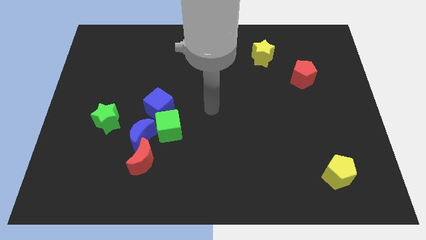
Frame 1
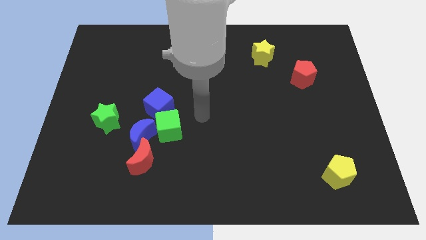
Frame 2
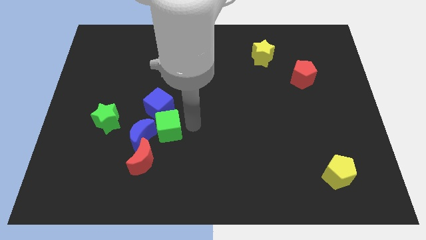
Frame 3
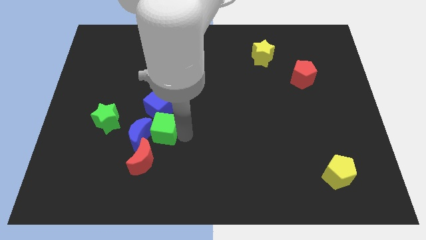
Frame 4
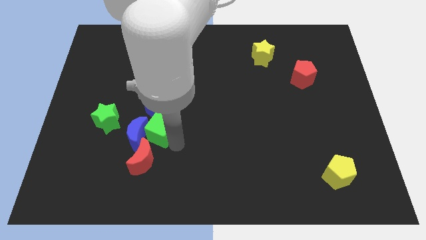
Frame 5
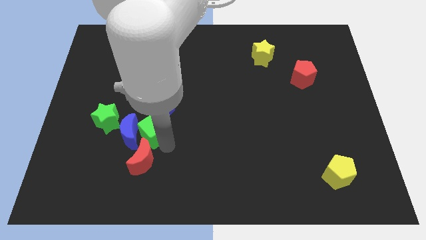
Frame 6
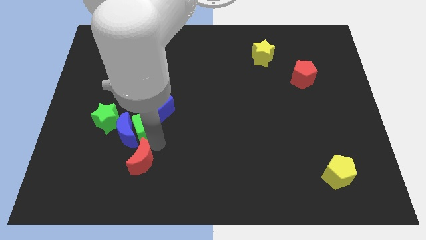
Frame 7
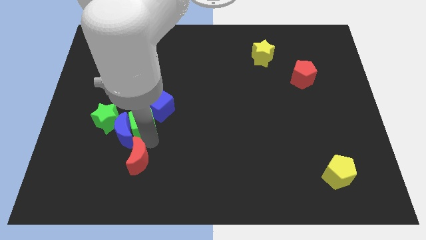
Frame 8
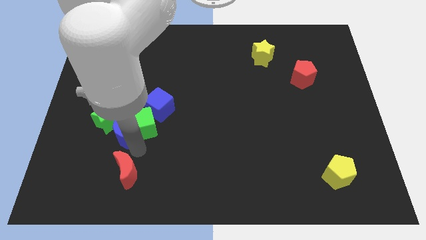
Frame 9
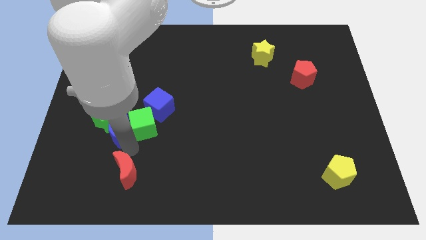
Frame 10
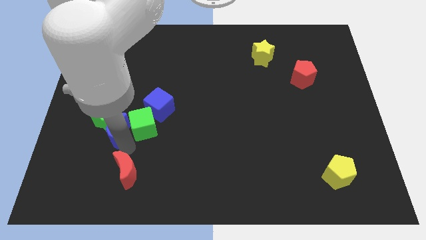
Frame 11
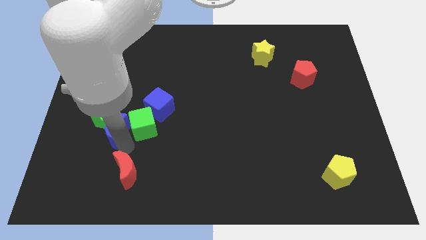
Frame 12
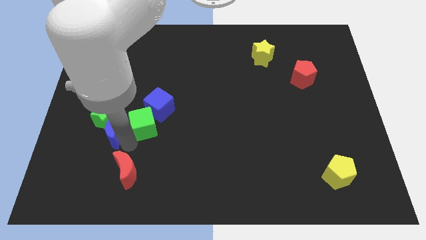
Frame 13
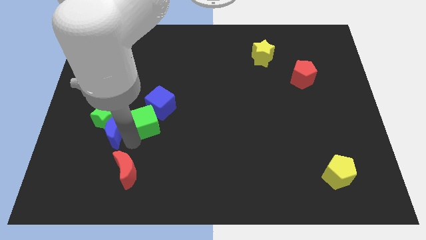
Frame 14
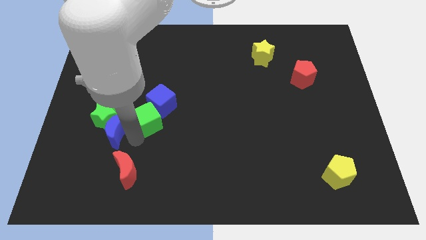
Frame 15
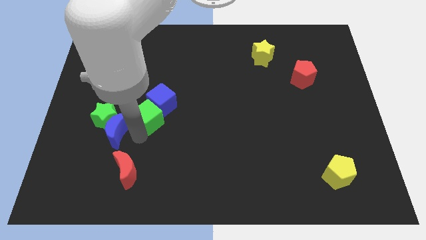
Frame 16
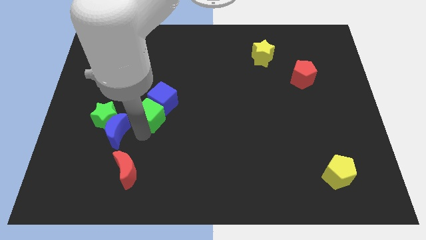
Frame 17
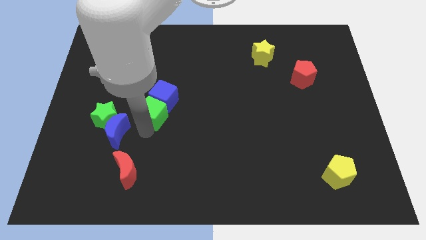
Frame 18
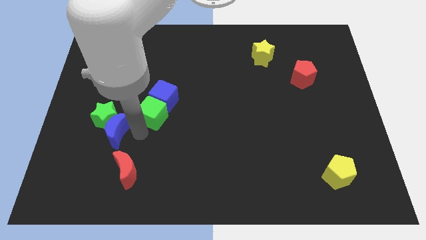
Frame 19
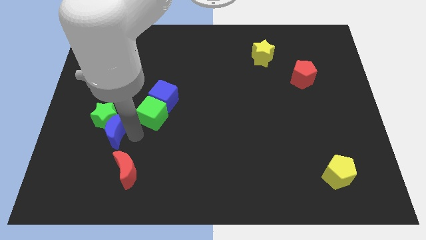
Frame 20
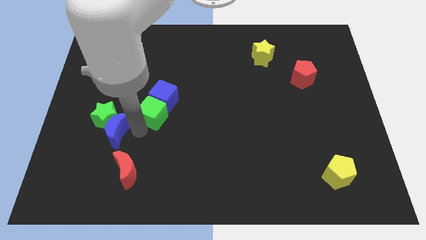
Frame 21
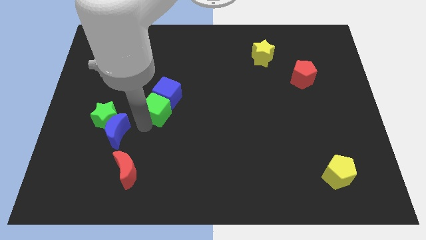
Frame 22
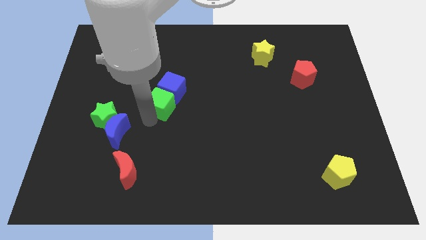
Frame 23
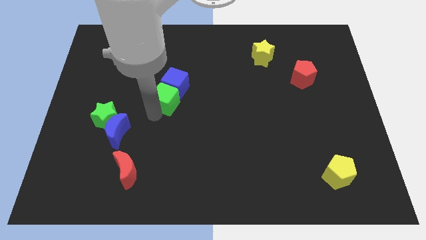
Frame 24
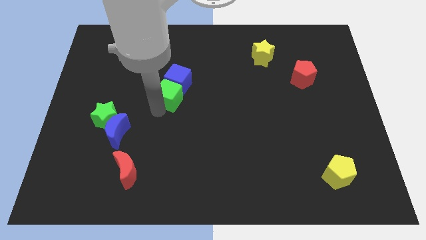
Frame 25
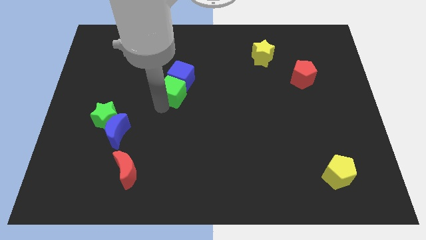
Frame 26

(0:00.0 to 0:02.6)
separate the green cube from the blue moon, blue cube, and red moon

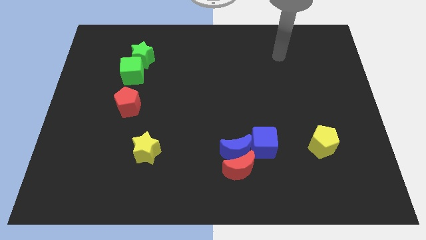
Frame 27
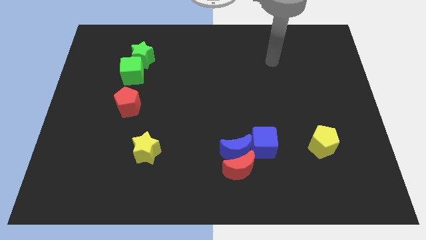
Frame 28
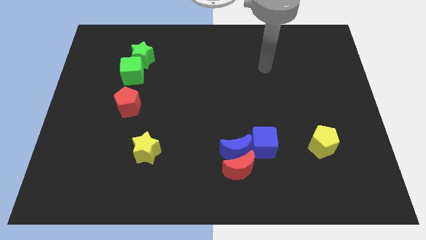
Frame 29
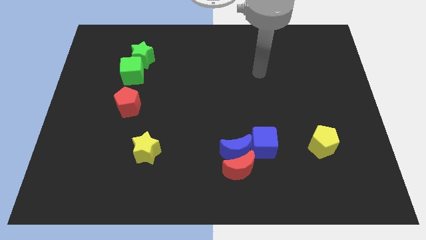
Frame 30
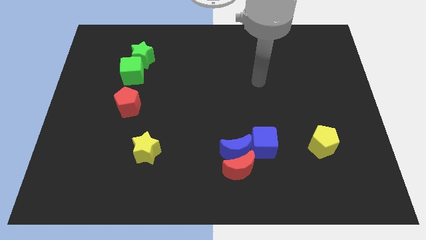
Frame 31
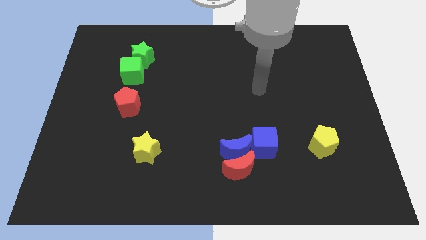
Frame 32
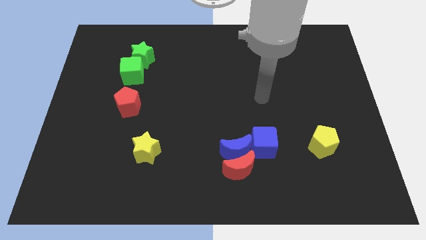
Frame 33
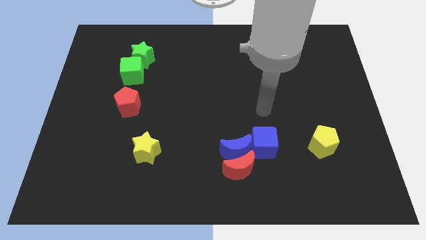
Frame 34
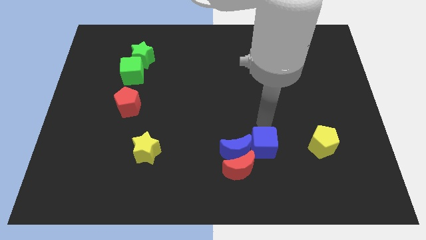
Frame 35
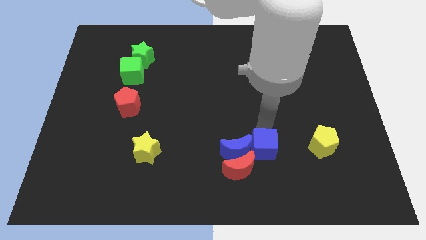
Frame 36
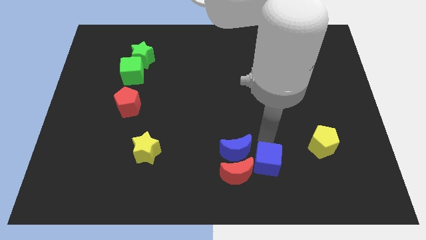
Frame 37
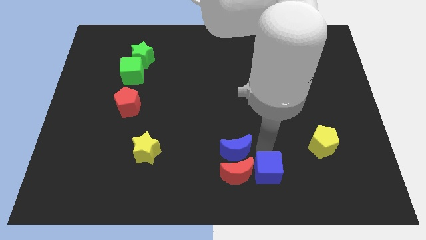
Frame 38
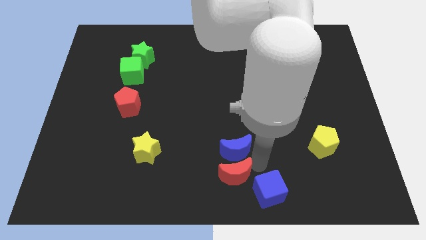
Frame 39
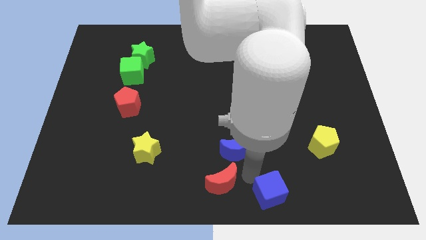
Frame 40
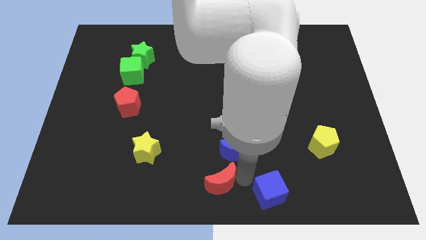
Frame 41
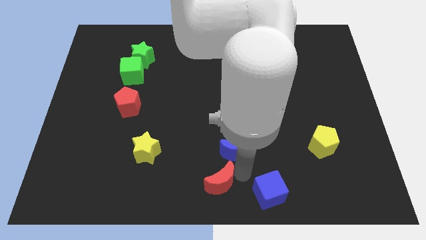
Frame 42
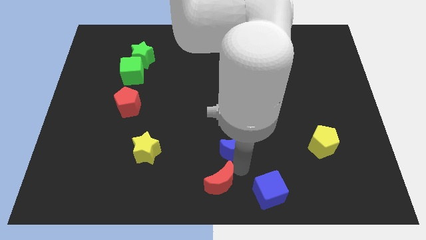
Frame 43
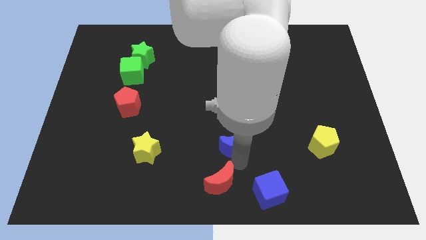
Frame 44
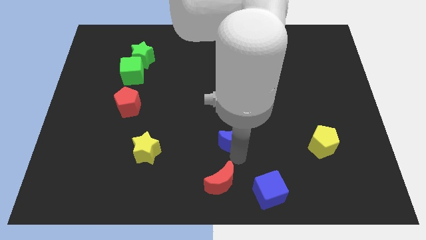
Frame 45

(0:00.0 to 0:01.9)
pull the blue moon apart from the red moon and blue cube

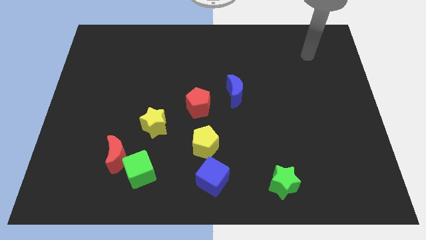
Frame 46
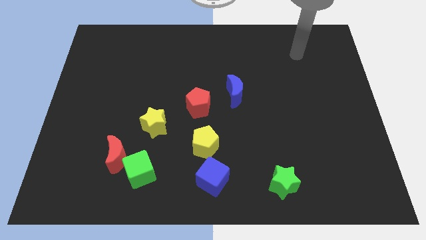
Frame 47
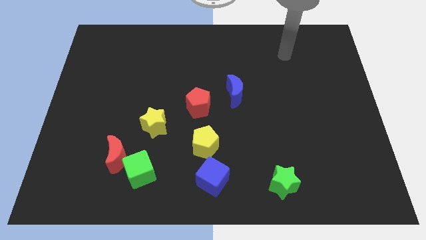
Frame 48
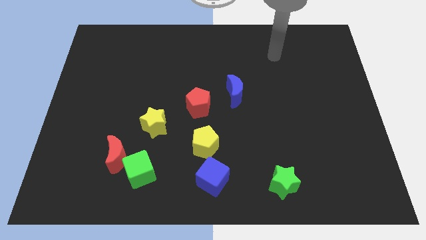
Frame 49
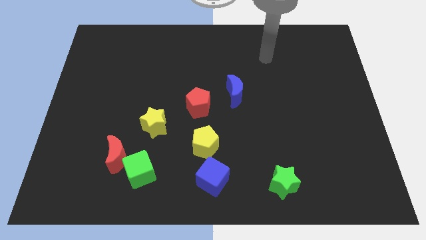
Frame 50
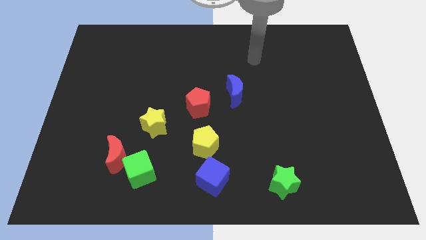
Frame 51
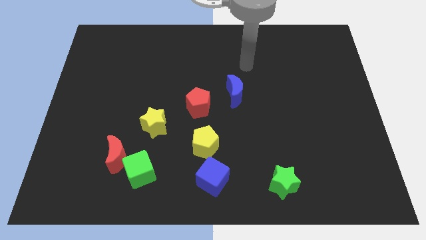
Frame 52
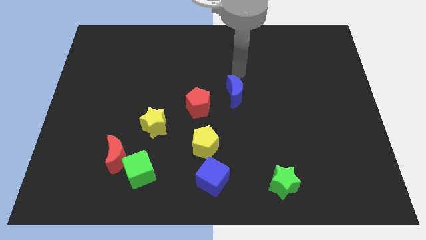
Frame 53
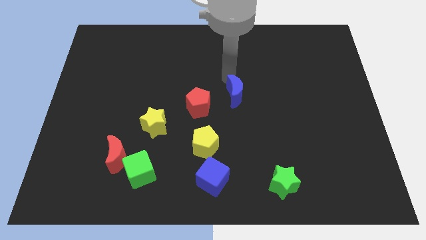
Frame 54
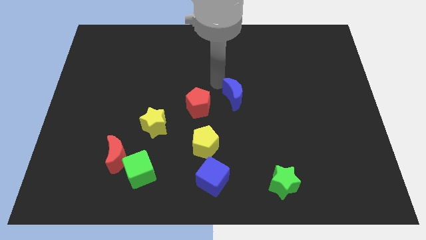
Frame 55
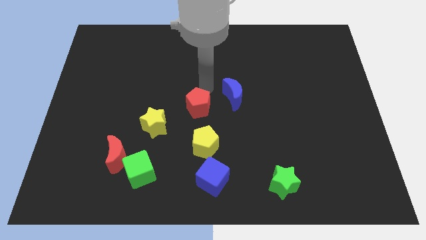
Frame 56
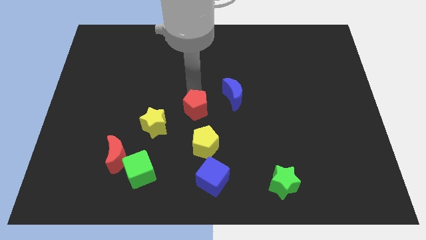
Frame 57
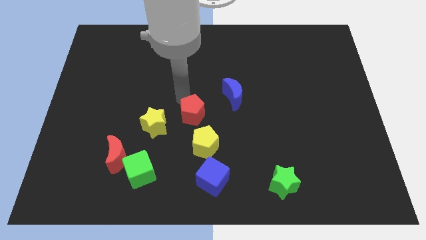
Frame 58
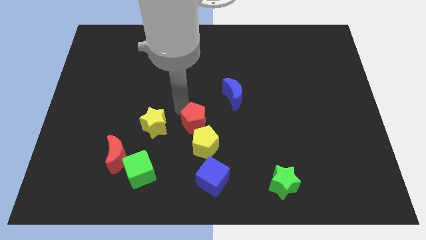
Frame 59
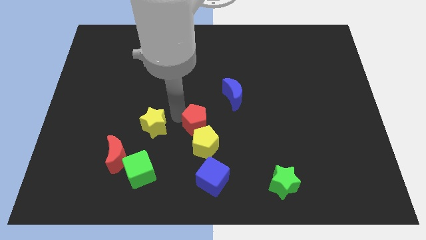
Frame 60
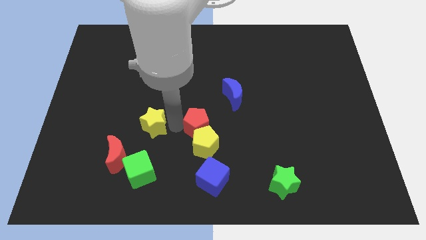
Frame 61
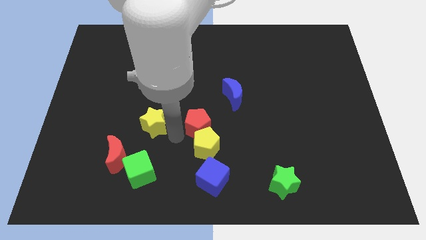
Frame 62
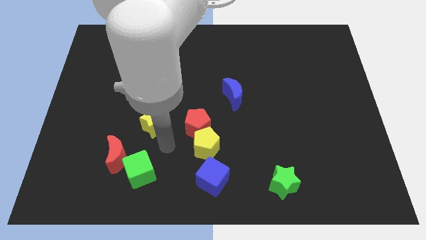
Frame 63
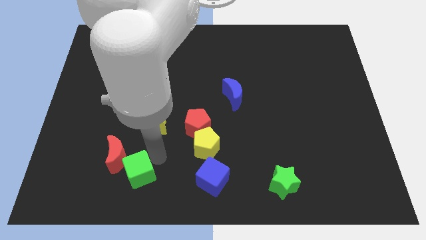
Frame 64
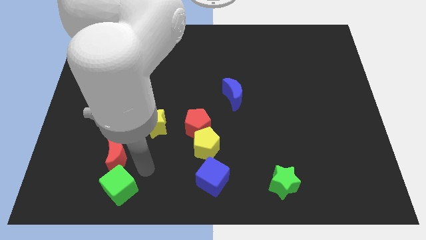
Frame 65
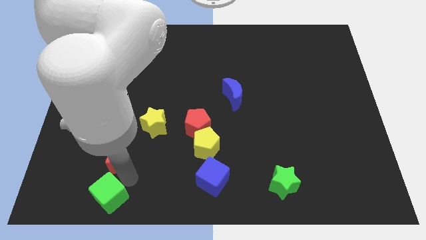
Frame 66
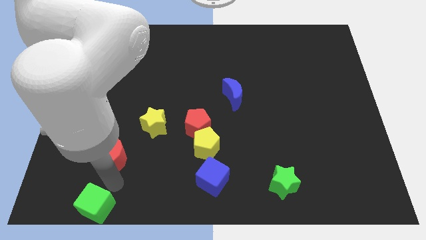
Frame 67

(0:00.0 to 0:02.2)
move the red moon away from the green cube

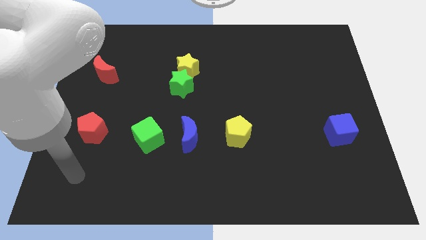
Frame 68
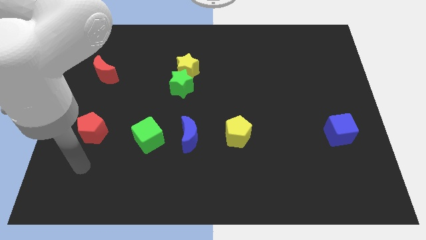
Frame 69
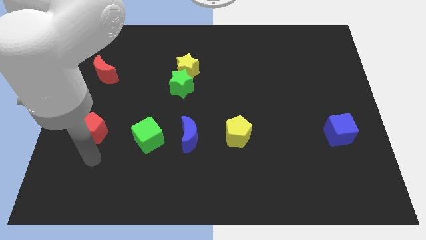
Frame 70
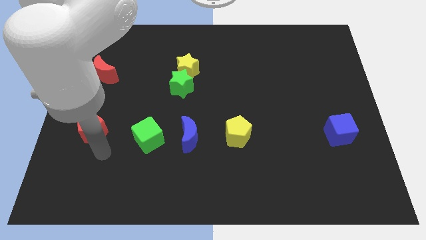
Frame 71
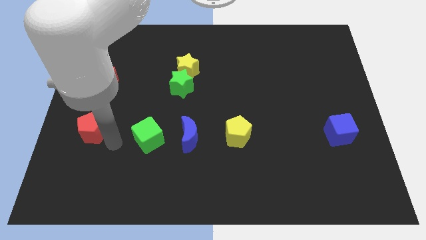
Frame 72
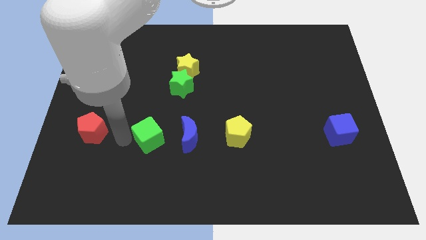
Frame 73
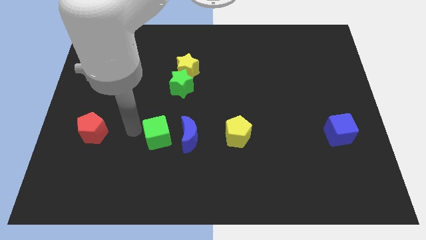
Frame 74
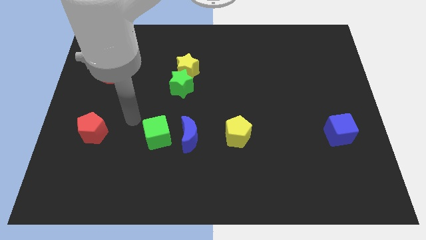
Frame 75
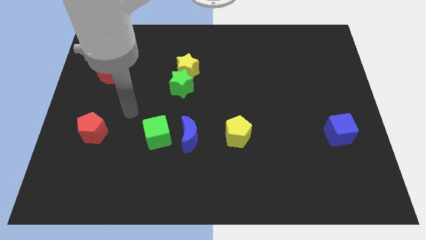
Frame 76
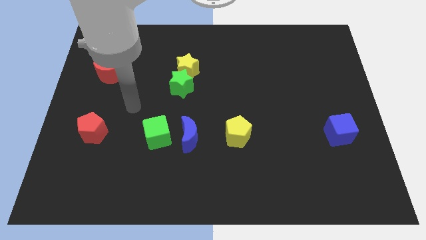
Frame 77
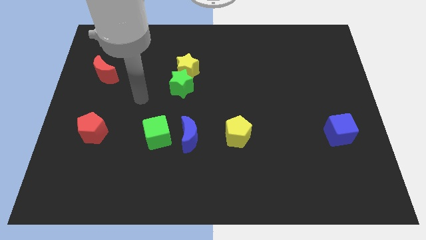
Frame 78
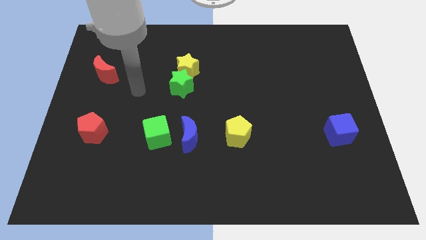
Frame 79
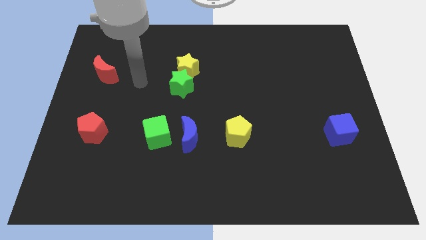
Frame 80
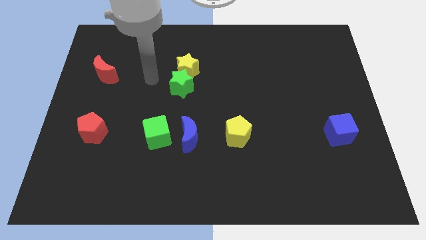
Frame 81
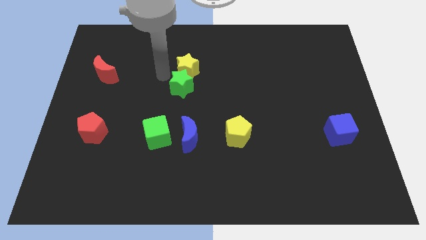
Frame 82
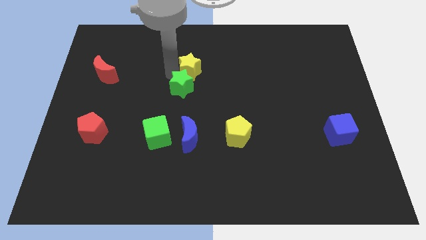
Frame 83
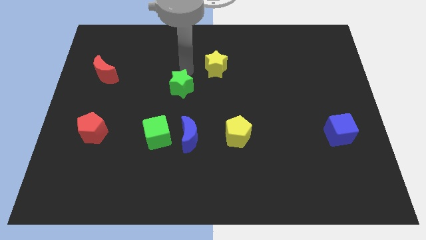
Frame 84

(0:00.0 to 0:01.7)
separate the green star from the yellow star

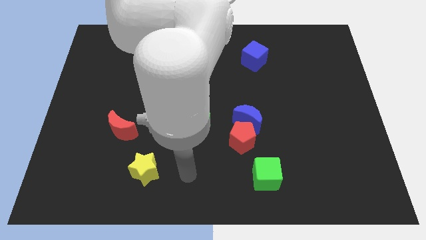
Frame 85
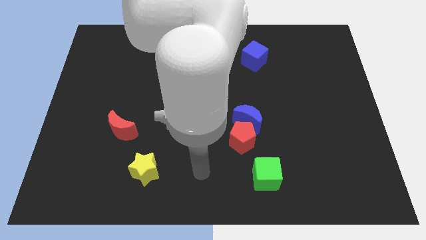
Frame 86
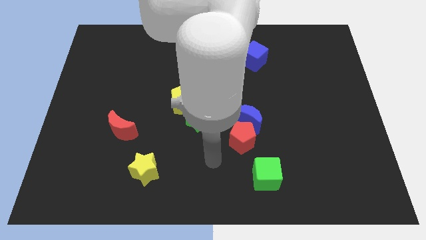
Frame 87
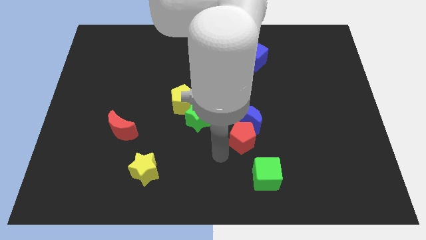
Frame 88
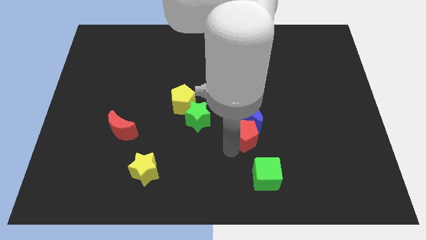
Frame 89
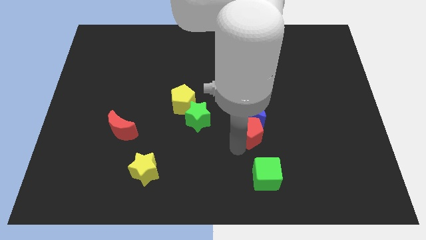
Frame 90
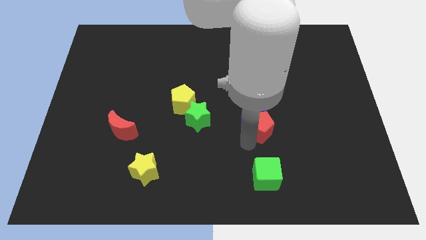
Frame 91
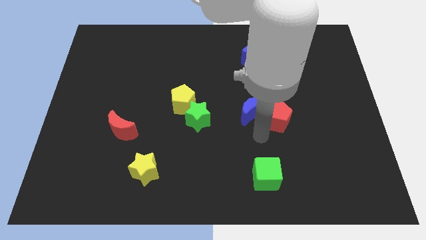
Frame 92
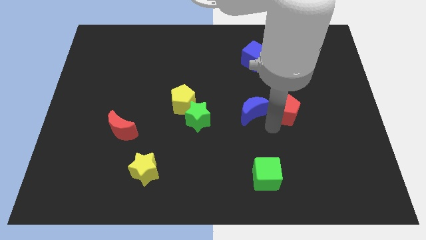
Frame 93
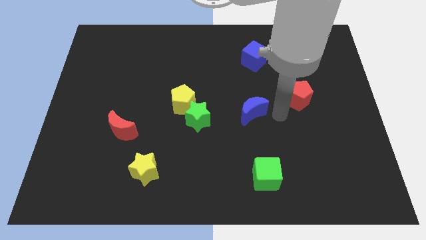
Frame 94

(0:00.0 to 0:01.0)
move the blue moon away from the red pentagon
